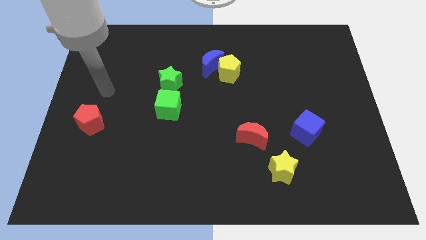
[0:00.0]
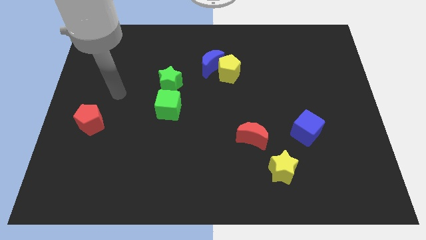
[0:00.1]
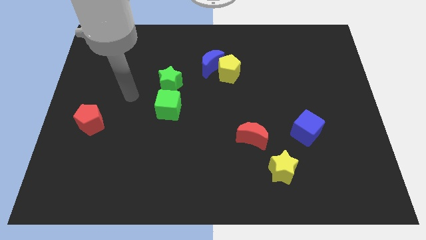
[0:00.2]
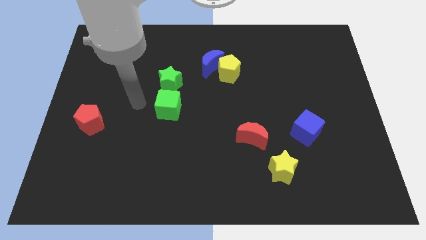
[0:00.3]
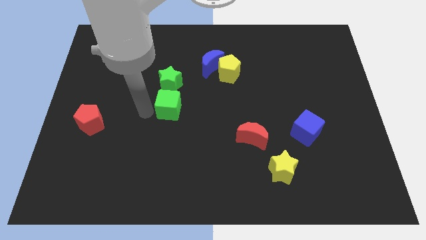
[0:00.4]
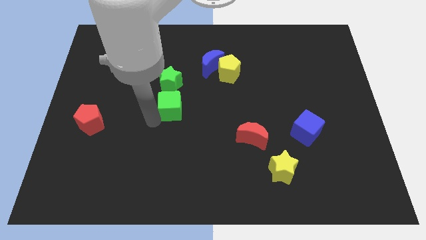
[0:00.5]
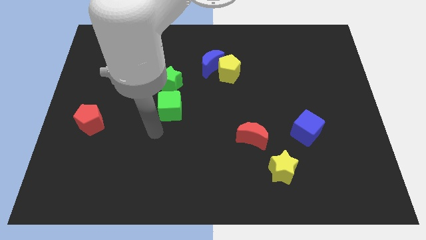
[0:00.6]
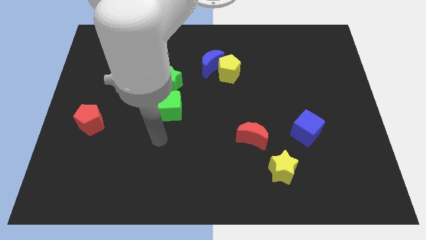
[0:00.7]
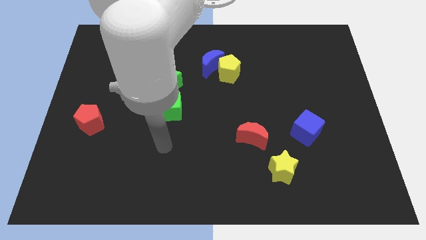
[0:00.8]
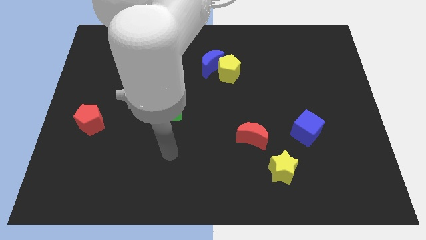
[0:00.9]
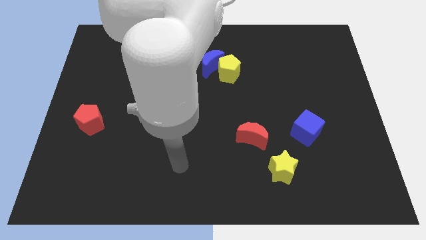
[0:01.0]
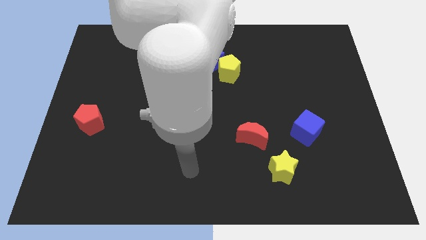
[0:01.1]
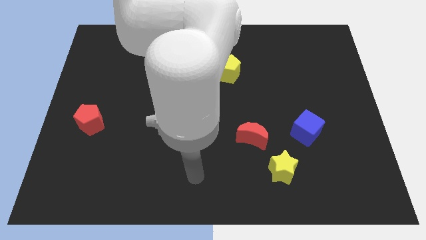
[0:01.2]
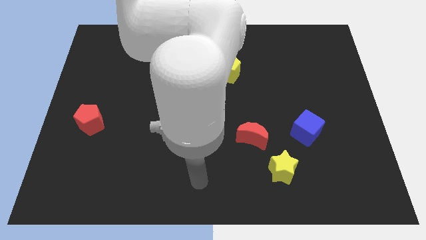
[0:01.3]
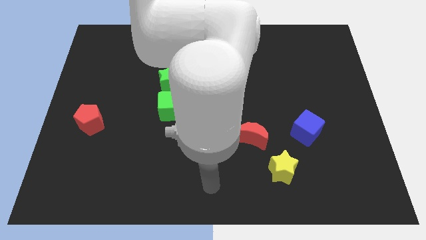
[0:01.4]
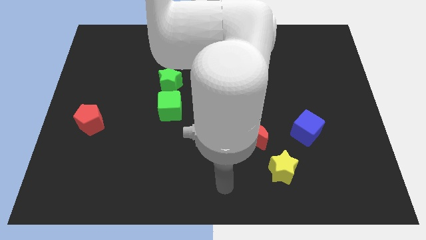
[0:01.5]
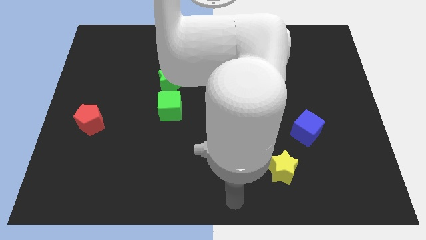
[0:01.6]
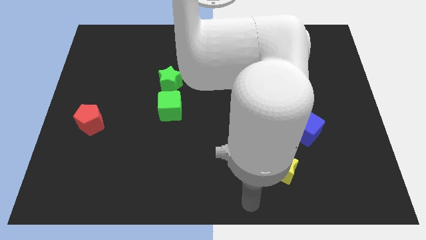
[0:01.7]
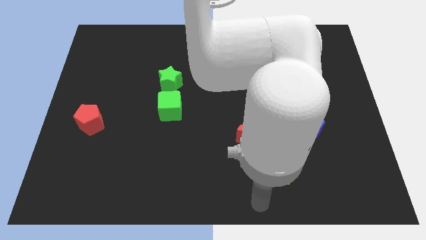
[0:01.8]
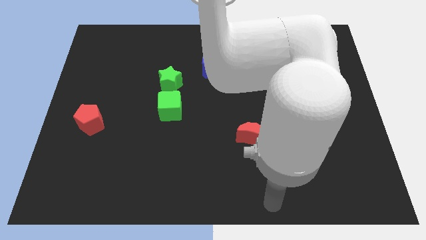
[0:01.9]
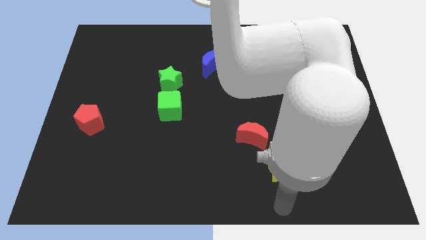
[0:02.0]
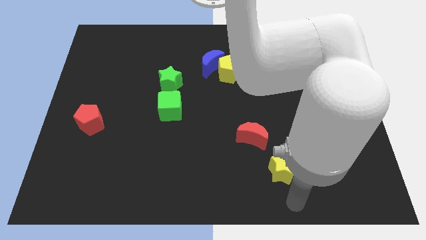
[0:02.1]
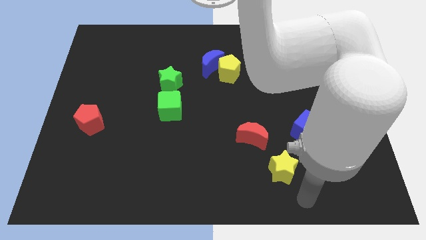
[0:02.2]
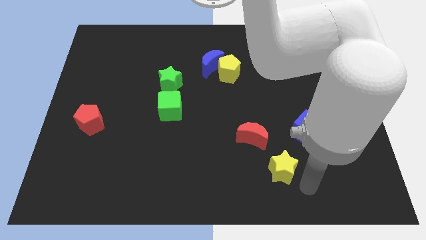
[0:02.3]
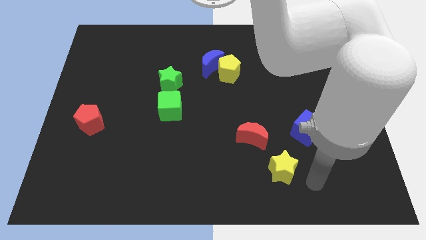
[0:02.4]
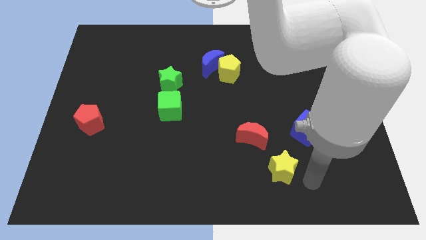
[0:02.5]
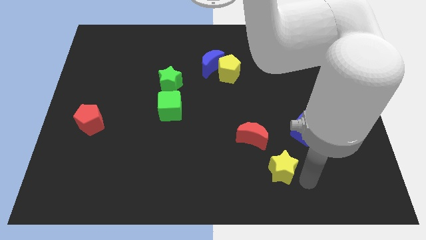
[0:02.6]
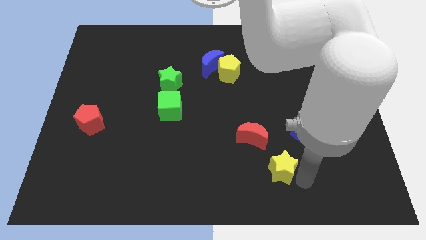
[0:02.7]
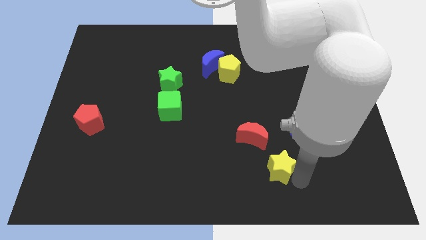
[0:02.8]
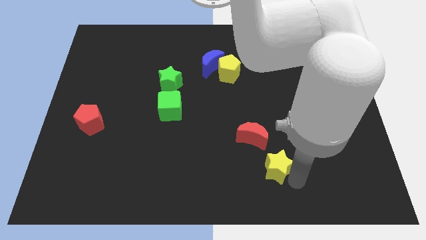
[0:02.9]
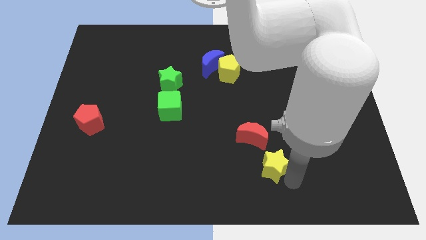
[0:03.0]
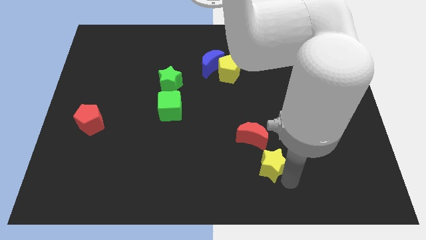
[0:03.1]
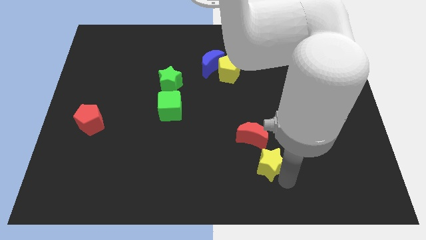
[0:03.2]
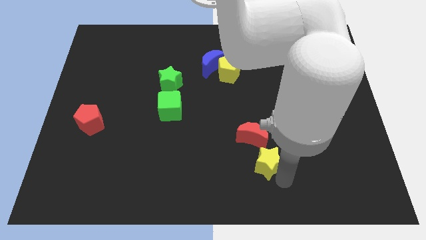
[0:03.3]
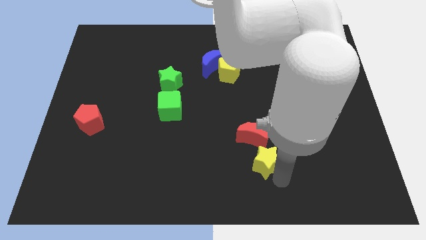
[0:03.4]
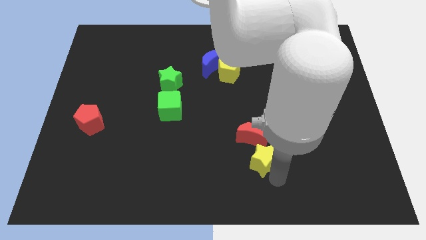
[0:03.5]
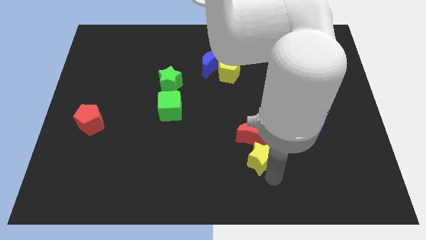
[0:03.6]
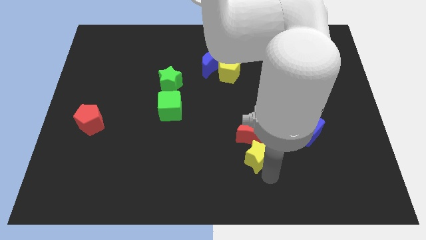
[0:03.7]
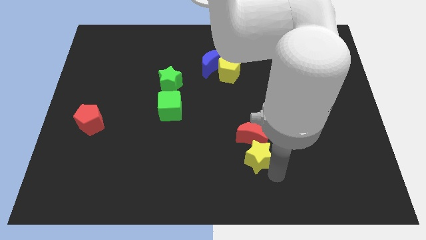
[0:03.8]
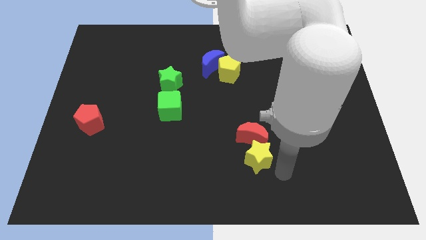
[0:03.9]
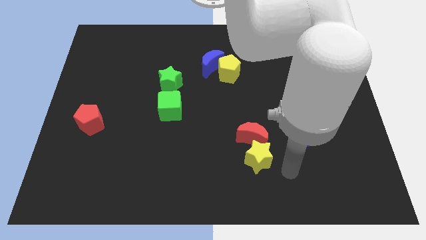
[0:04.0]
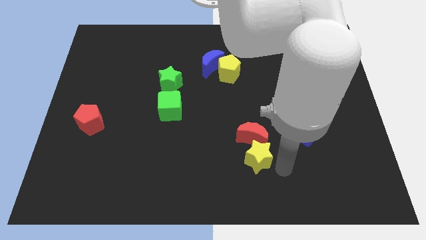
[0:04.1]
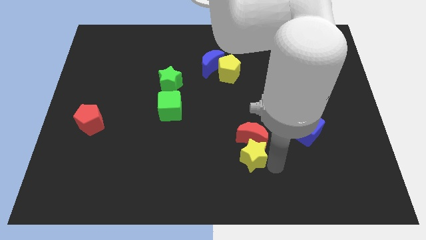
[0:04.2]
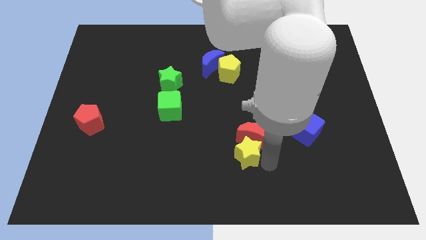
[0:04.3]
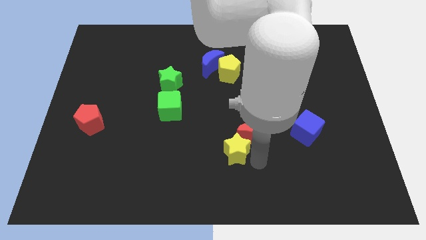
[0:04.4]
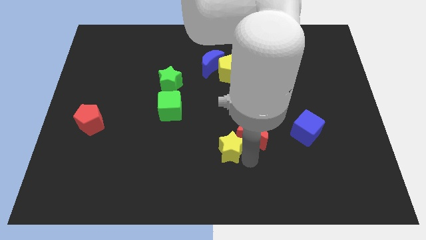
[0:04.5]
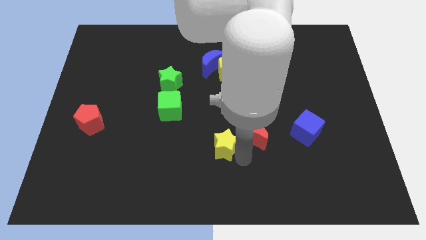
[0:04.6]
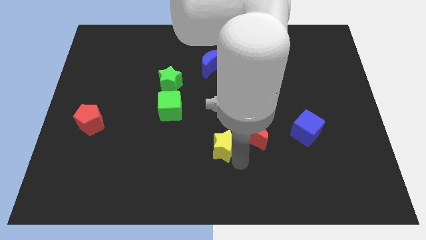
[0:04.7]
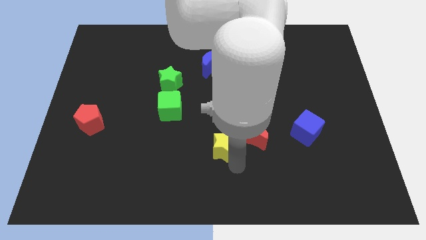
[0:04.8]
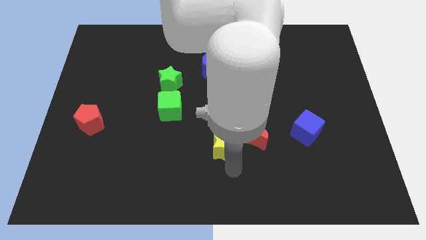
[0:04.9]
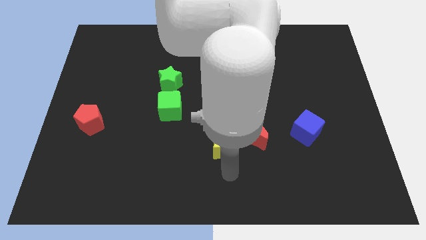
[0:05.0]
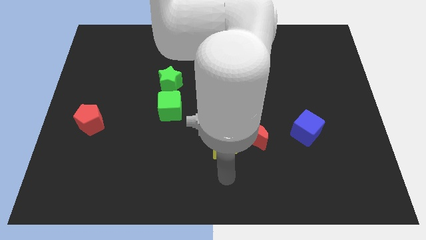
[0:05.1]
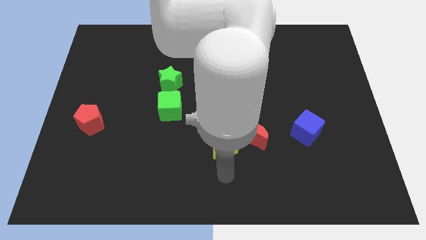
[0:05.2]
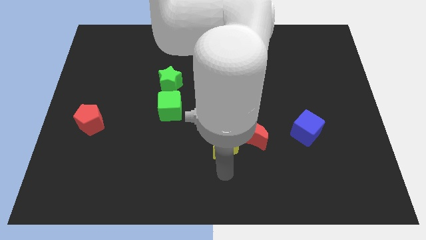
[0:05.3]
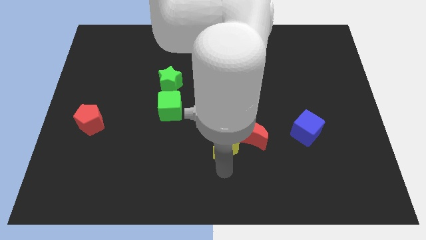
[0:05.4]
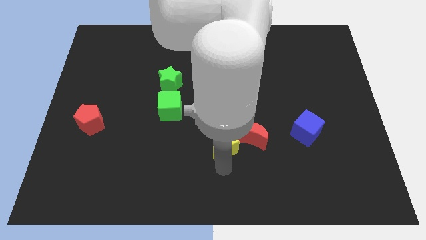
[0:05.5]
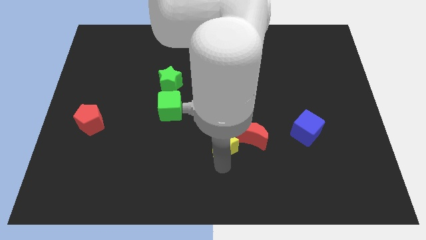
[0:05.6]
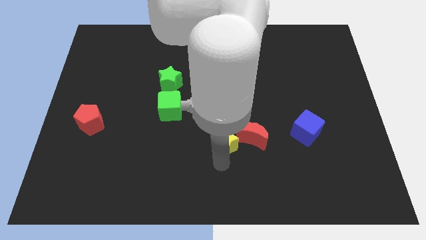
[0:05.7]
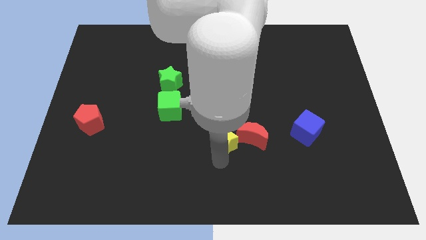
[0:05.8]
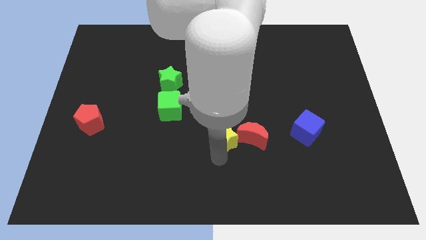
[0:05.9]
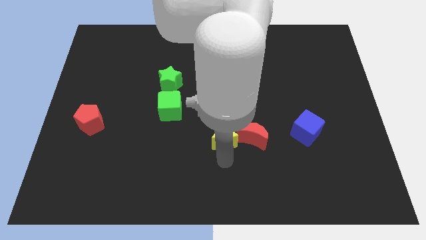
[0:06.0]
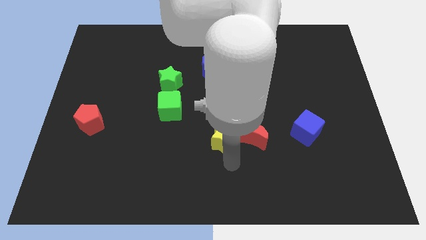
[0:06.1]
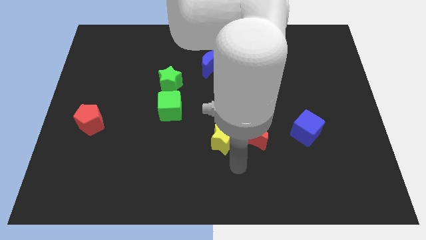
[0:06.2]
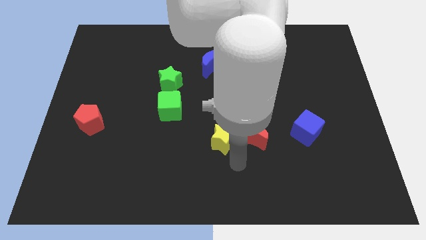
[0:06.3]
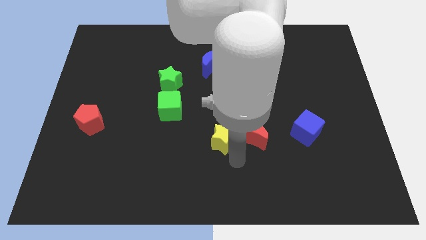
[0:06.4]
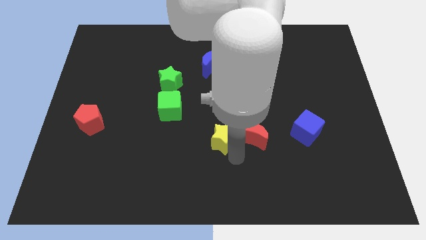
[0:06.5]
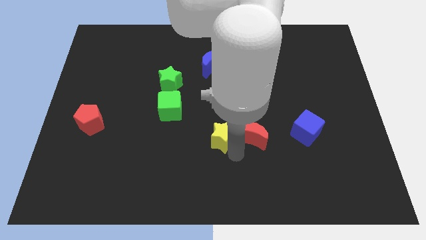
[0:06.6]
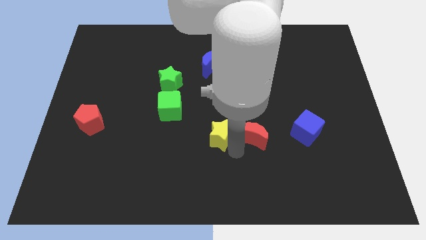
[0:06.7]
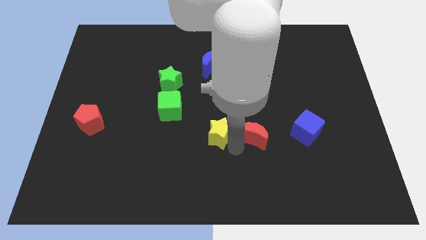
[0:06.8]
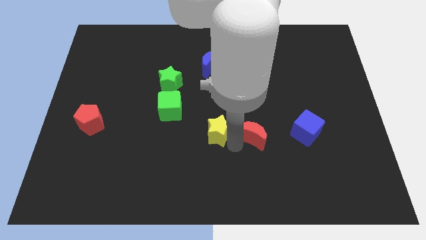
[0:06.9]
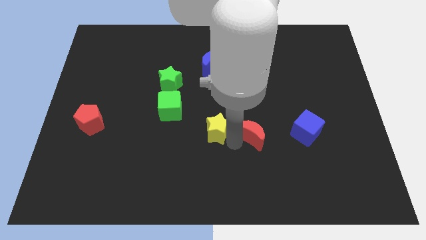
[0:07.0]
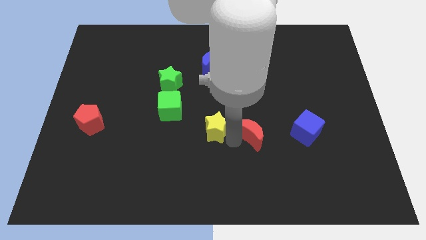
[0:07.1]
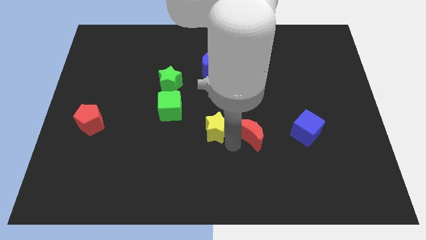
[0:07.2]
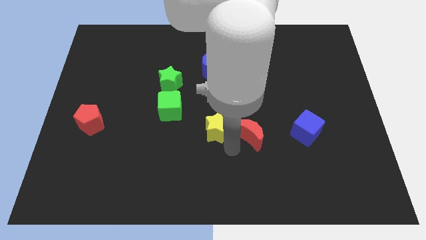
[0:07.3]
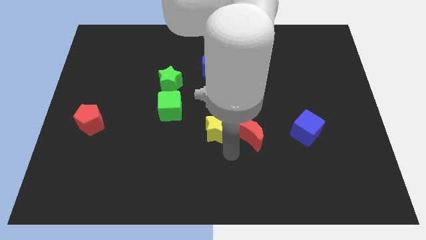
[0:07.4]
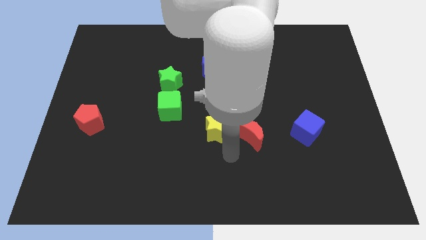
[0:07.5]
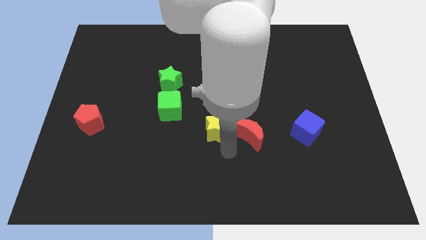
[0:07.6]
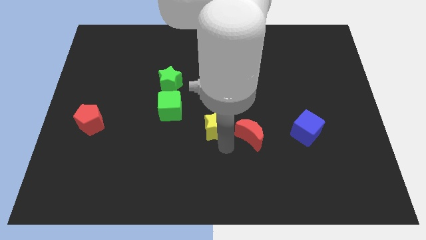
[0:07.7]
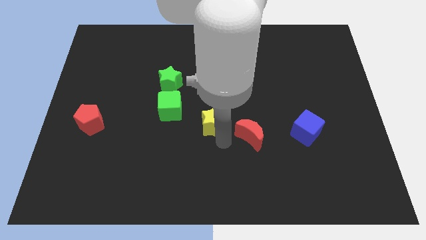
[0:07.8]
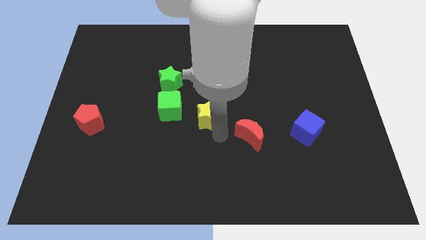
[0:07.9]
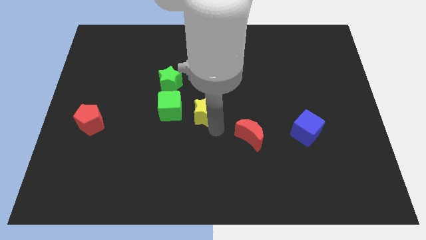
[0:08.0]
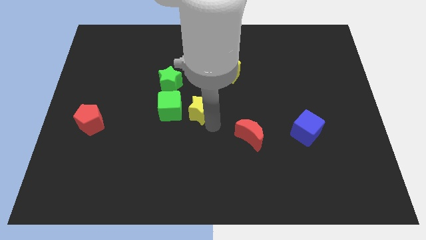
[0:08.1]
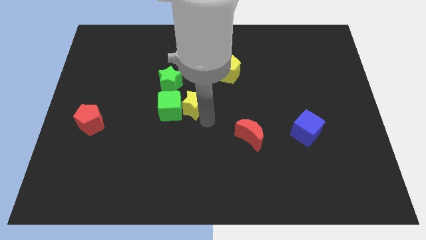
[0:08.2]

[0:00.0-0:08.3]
push the yellow star to the top right of the green cube
